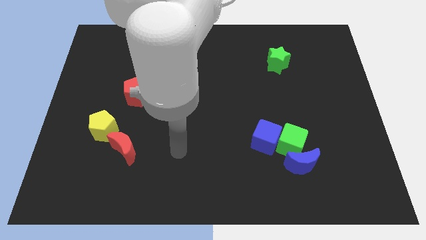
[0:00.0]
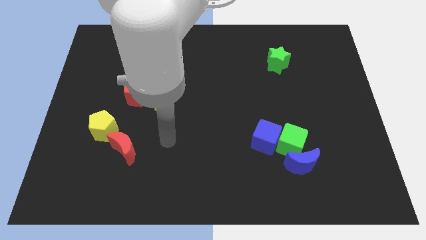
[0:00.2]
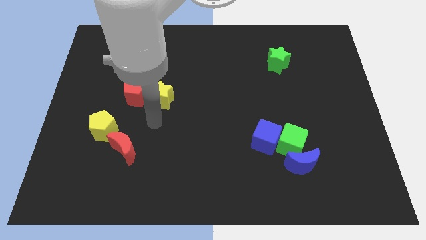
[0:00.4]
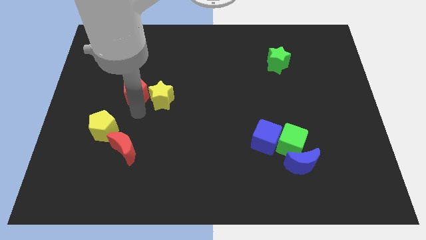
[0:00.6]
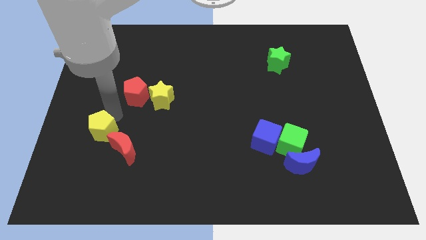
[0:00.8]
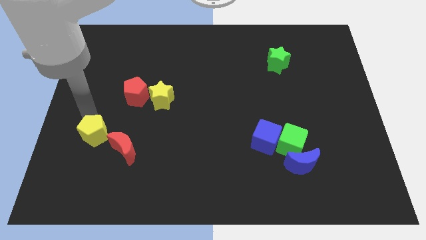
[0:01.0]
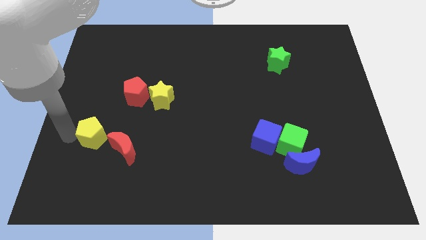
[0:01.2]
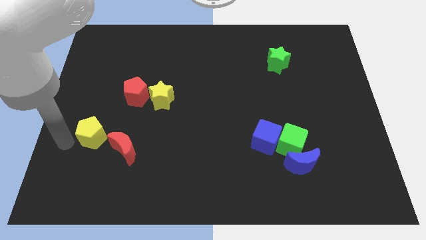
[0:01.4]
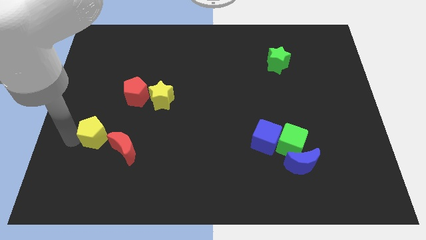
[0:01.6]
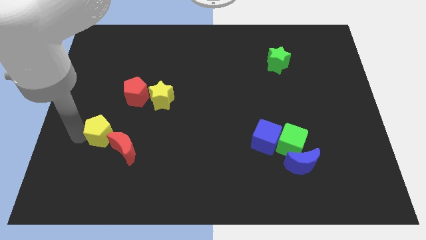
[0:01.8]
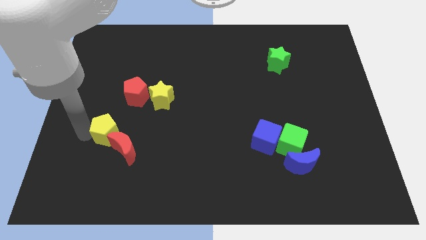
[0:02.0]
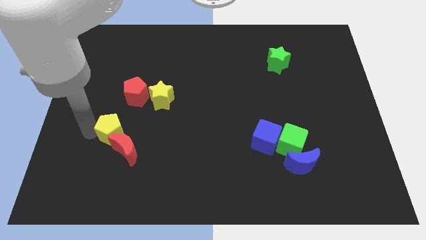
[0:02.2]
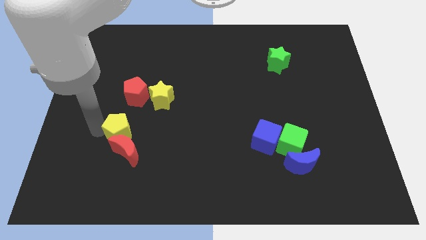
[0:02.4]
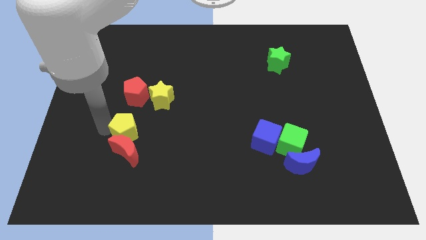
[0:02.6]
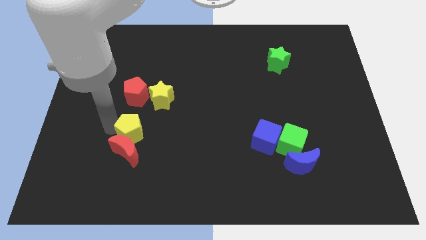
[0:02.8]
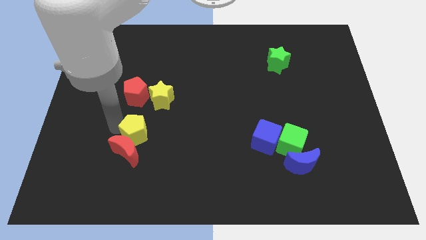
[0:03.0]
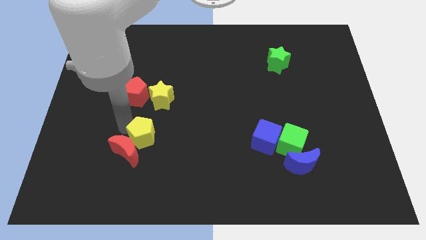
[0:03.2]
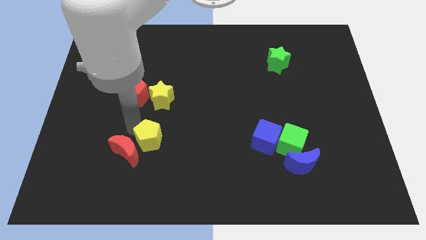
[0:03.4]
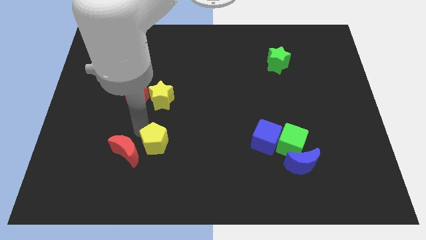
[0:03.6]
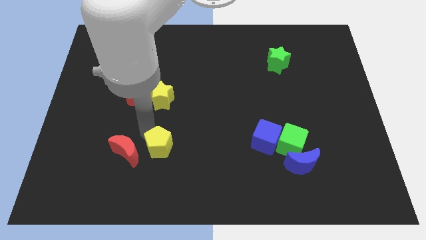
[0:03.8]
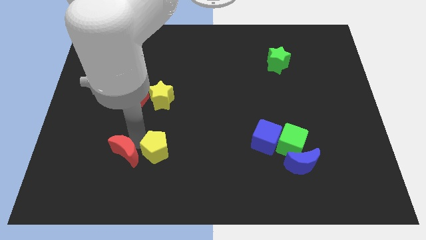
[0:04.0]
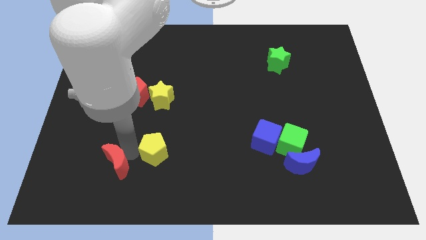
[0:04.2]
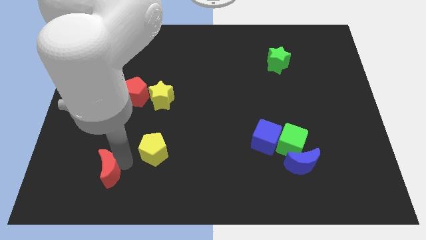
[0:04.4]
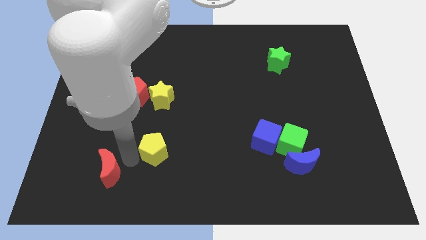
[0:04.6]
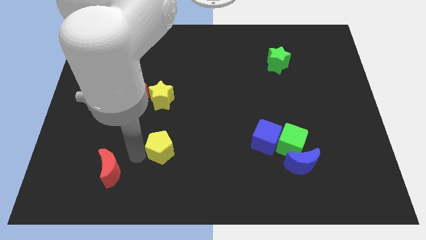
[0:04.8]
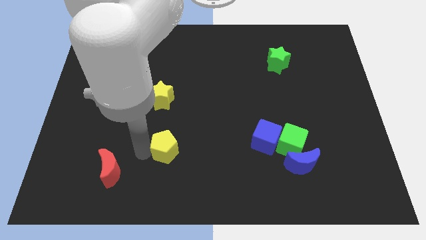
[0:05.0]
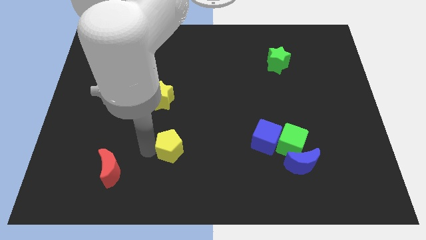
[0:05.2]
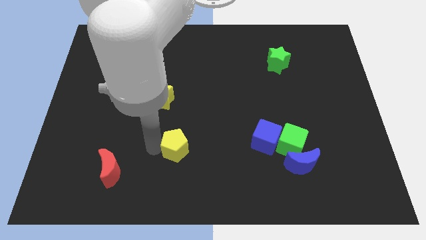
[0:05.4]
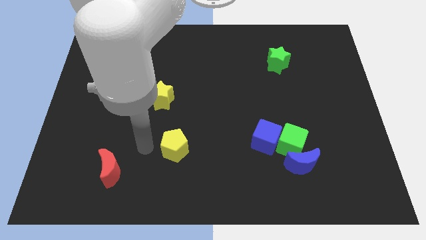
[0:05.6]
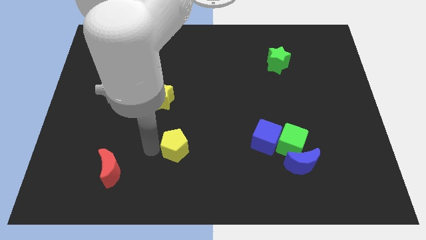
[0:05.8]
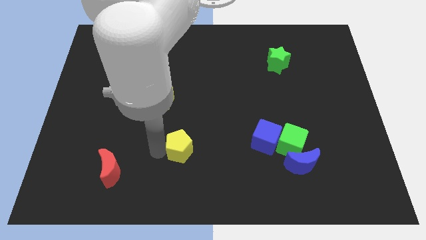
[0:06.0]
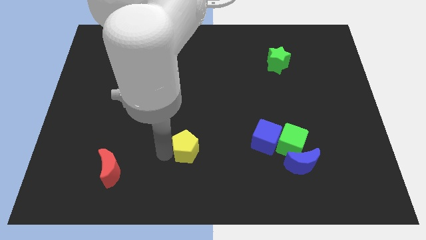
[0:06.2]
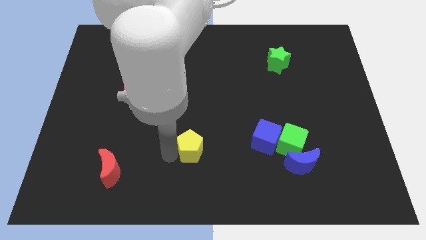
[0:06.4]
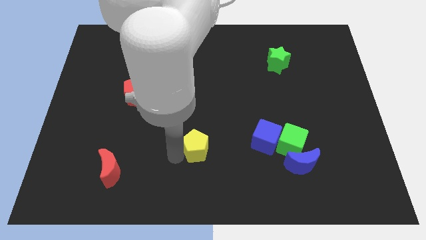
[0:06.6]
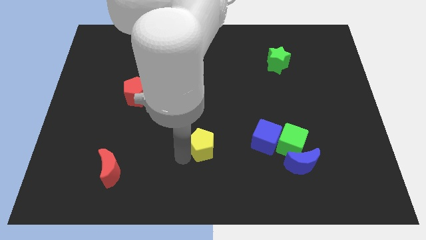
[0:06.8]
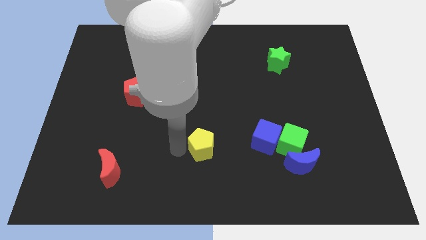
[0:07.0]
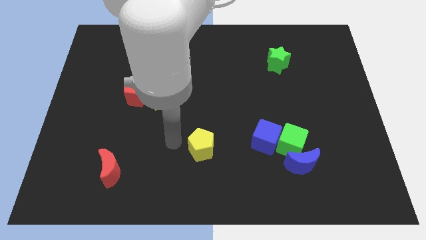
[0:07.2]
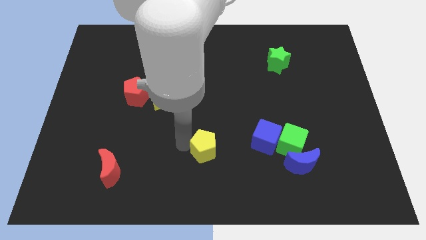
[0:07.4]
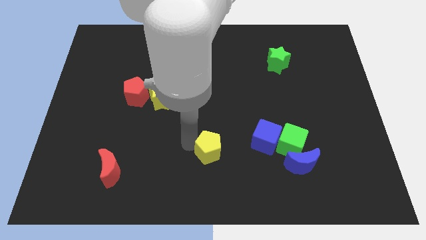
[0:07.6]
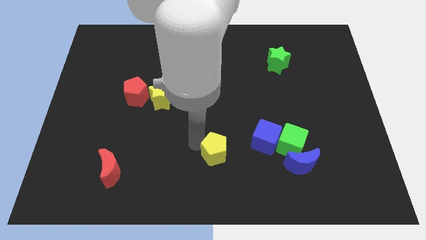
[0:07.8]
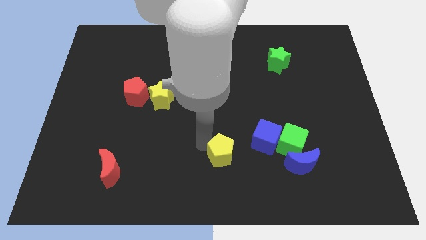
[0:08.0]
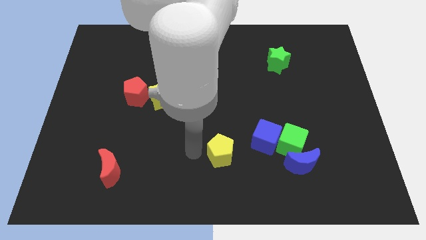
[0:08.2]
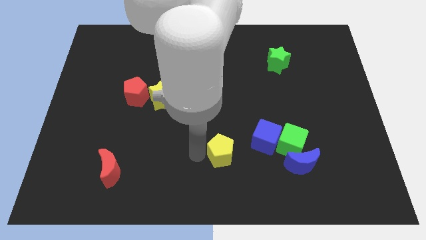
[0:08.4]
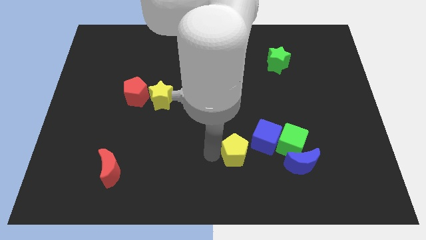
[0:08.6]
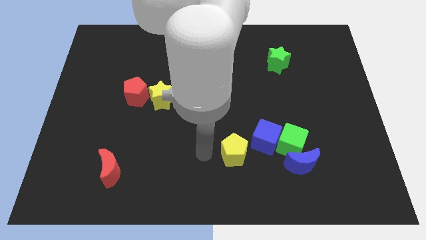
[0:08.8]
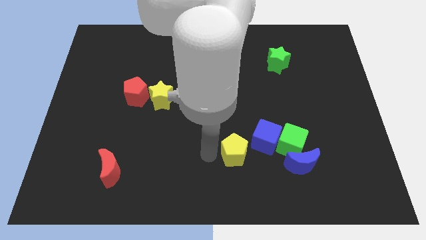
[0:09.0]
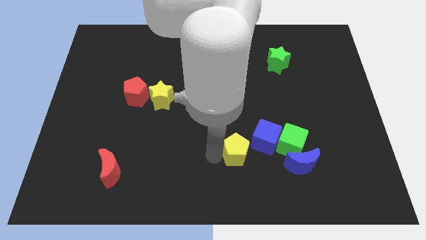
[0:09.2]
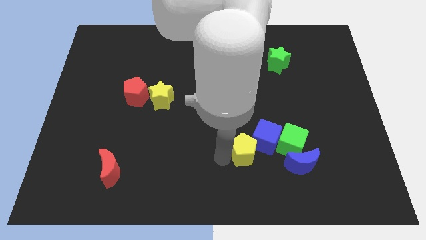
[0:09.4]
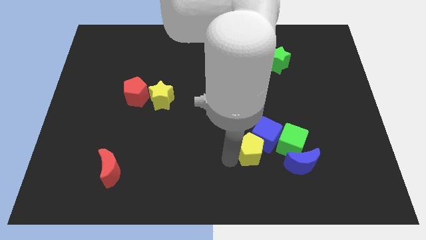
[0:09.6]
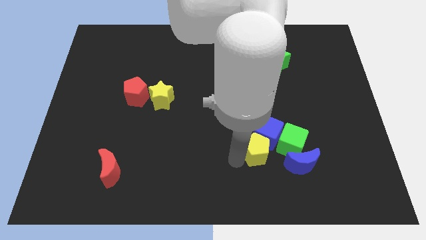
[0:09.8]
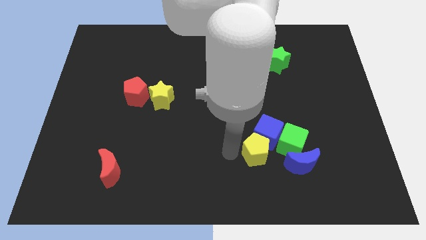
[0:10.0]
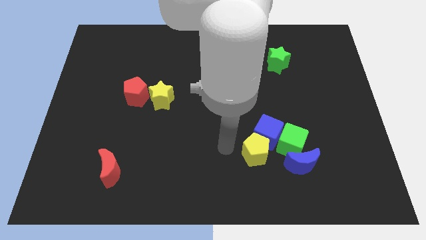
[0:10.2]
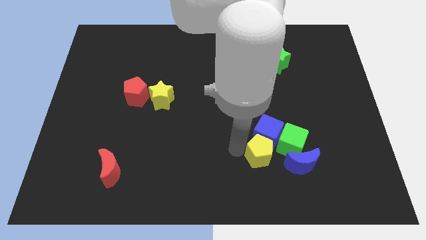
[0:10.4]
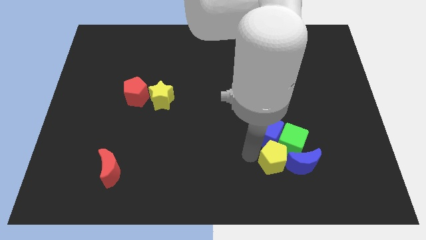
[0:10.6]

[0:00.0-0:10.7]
slide the yellow pentagon next to the green cube

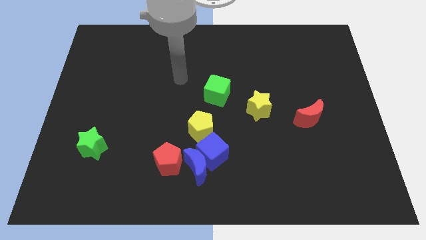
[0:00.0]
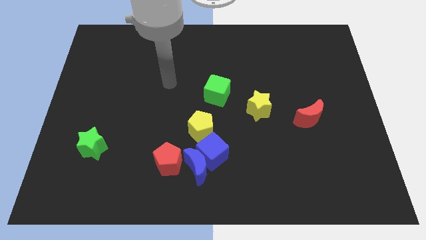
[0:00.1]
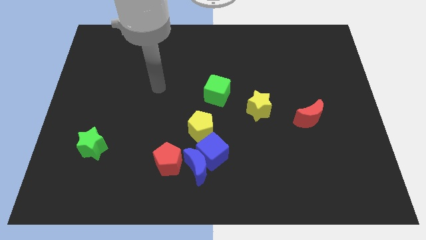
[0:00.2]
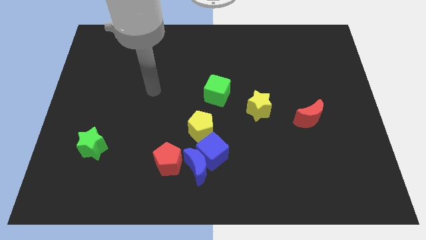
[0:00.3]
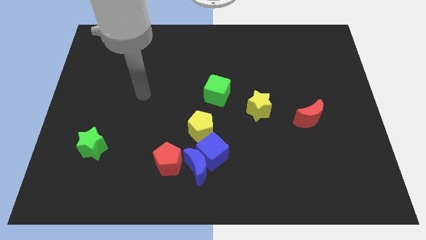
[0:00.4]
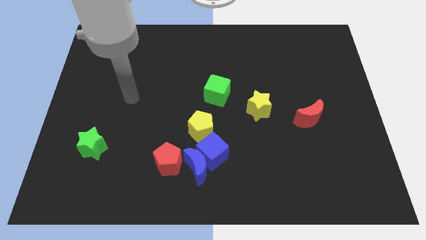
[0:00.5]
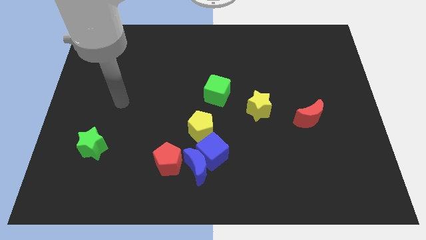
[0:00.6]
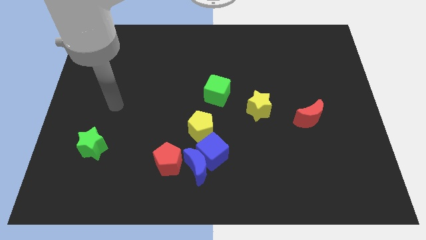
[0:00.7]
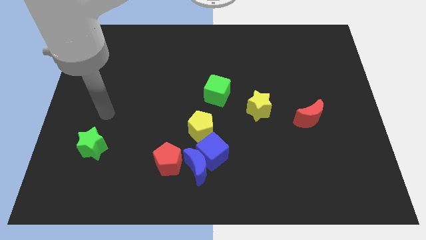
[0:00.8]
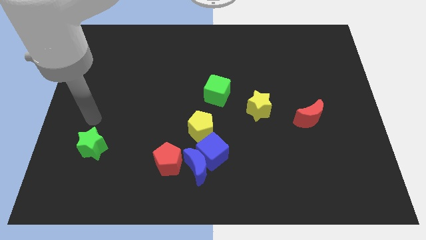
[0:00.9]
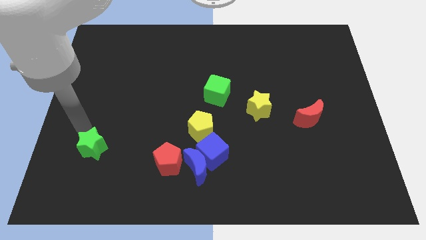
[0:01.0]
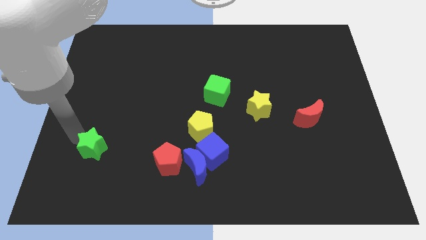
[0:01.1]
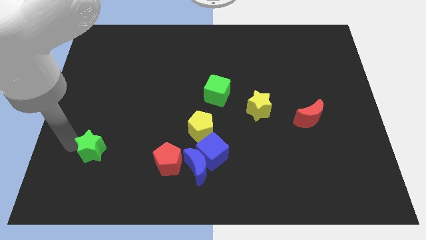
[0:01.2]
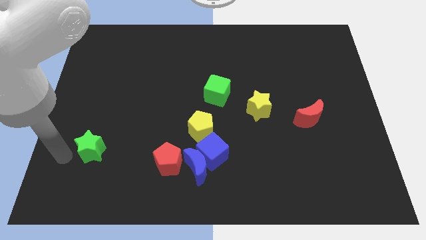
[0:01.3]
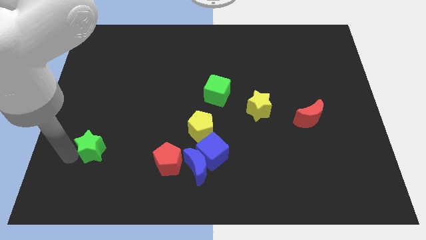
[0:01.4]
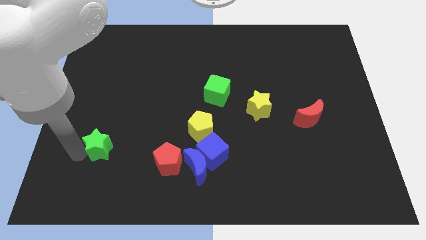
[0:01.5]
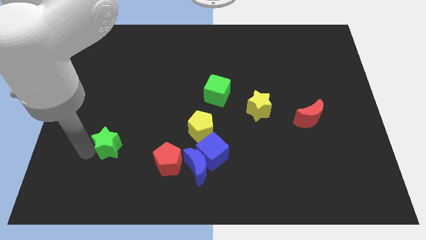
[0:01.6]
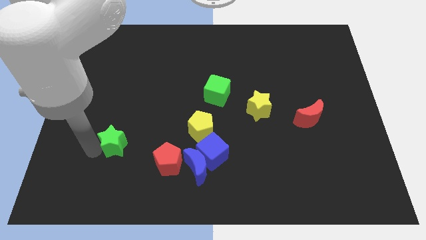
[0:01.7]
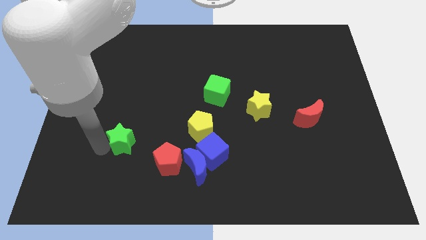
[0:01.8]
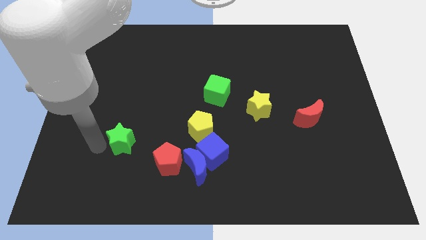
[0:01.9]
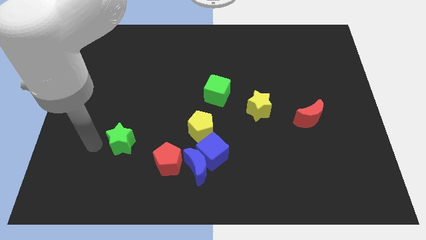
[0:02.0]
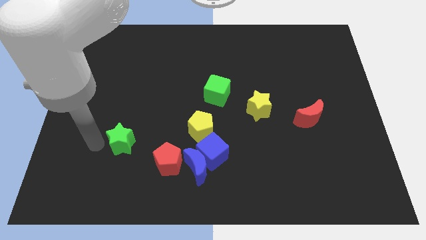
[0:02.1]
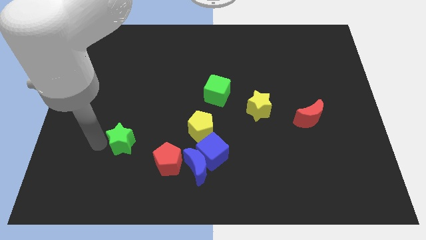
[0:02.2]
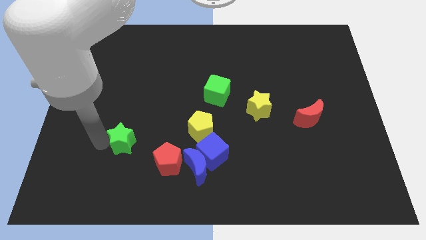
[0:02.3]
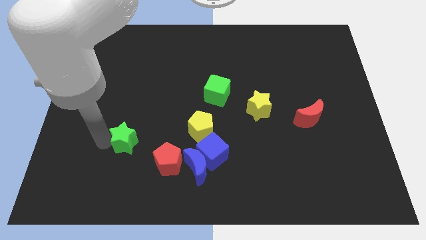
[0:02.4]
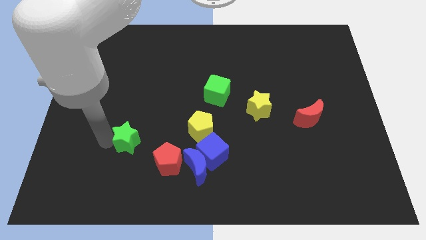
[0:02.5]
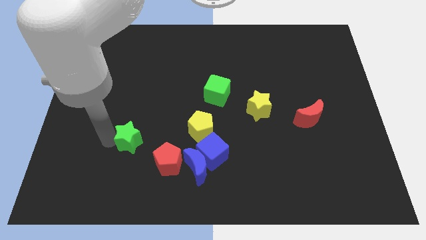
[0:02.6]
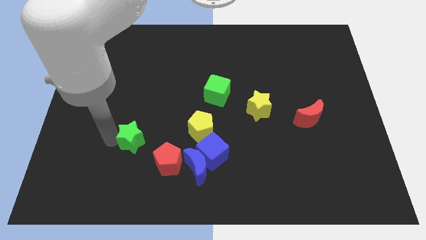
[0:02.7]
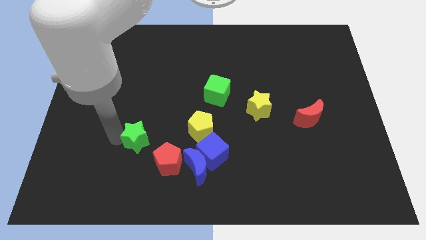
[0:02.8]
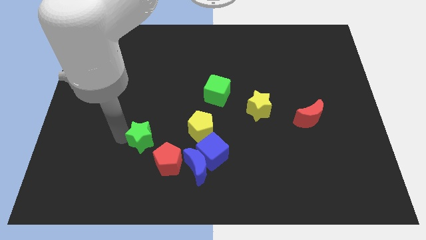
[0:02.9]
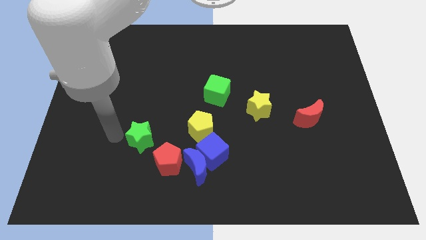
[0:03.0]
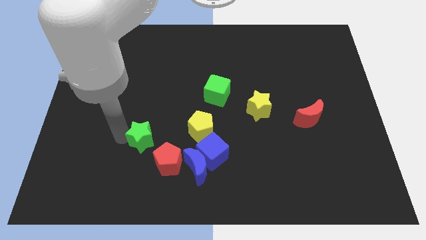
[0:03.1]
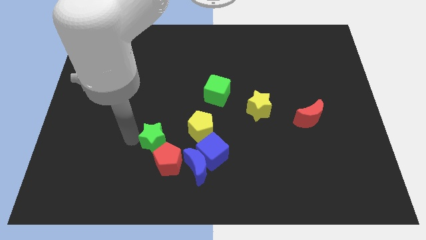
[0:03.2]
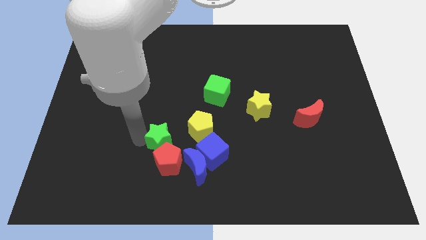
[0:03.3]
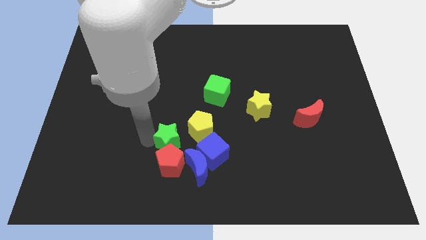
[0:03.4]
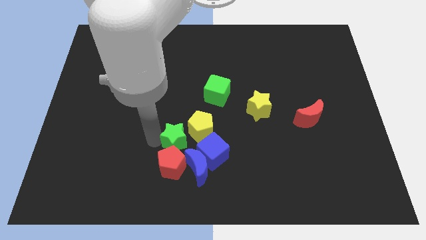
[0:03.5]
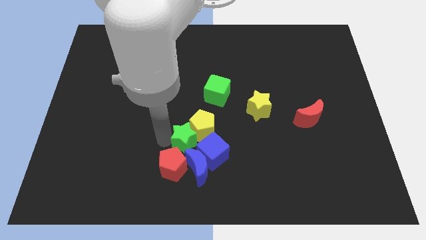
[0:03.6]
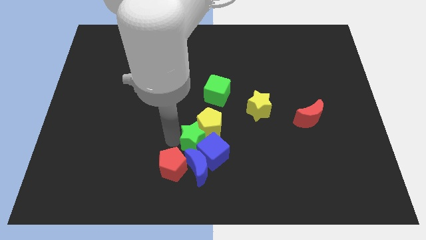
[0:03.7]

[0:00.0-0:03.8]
slide the green star to the blue cube
